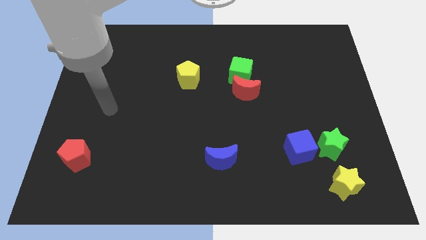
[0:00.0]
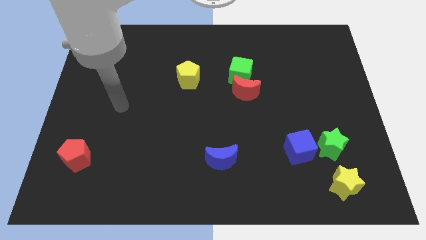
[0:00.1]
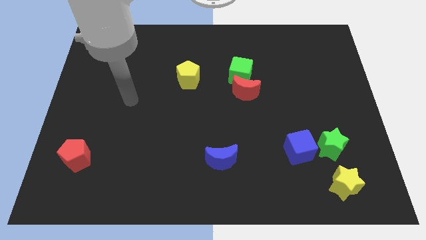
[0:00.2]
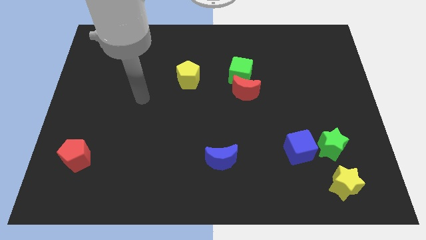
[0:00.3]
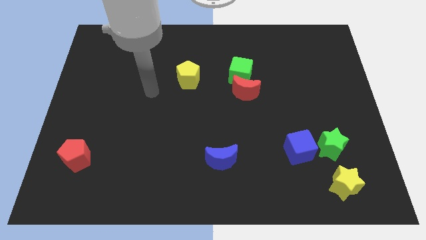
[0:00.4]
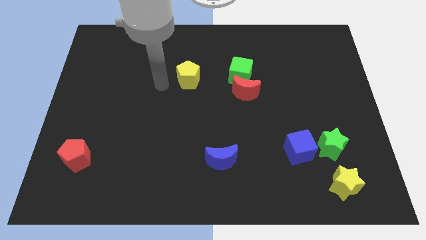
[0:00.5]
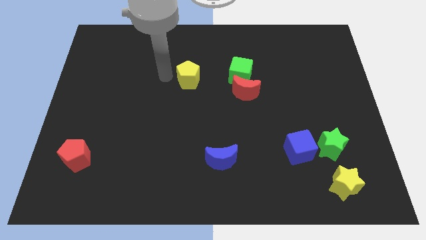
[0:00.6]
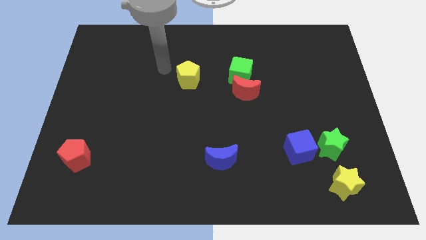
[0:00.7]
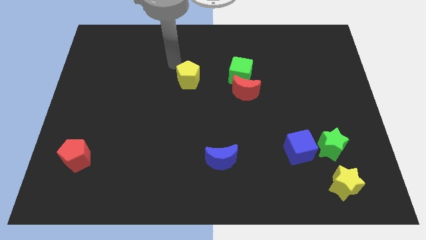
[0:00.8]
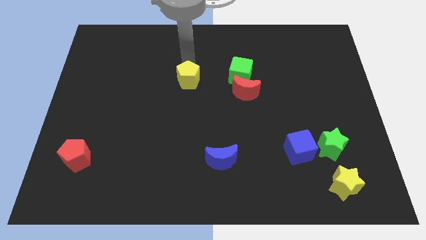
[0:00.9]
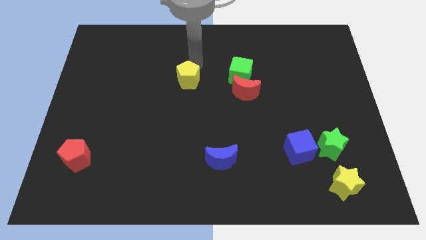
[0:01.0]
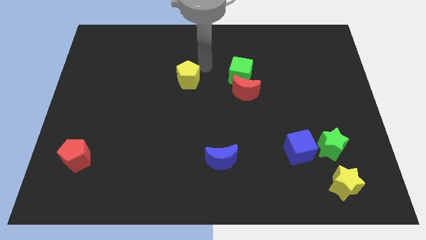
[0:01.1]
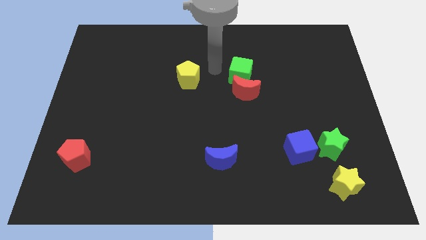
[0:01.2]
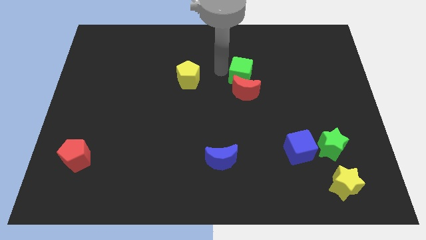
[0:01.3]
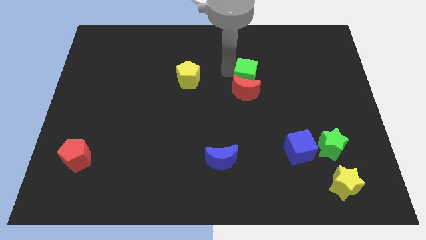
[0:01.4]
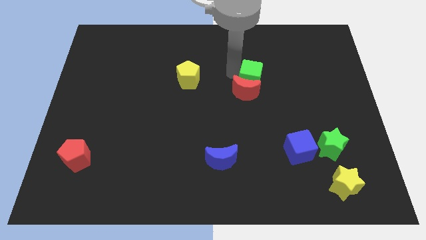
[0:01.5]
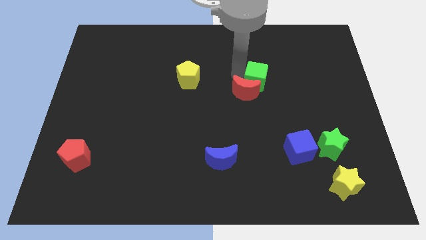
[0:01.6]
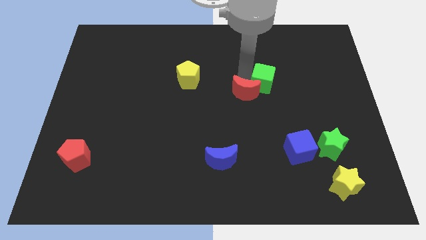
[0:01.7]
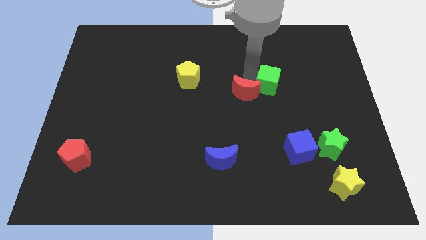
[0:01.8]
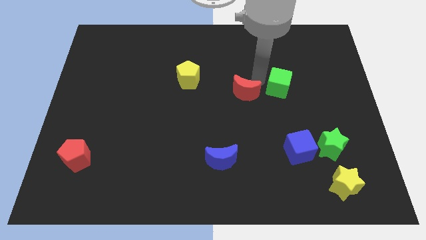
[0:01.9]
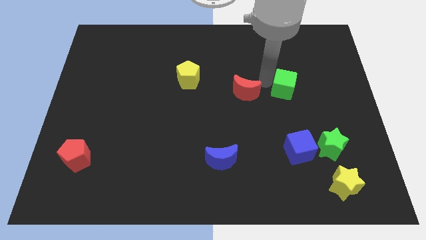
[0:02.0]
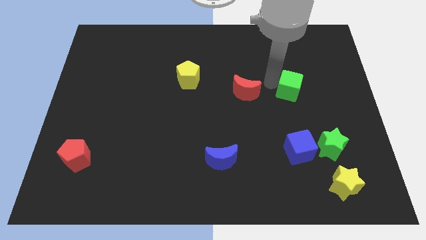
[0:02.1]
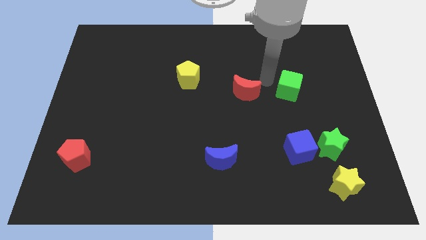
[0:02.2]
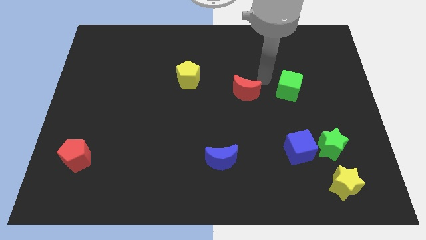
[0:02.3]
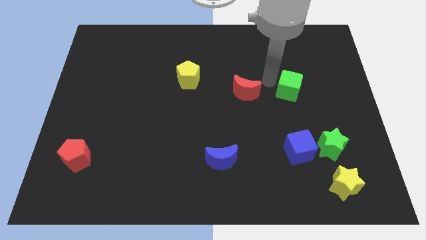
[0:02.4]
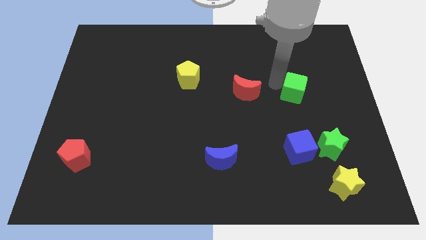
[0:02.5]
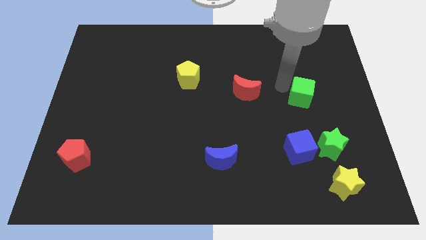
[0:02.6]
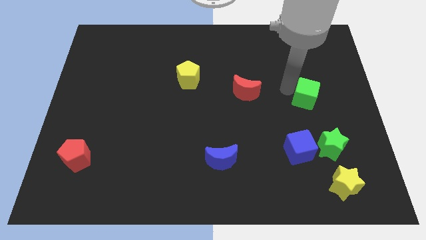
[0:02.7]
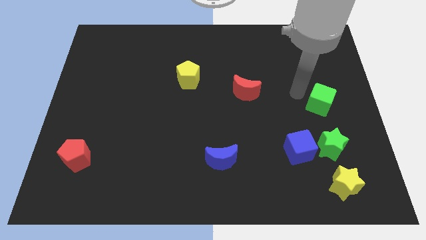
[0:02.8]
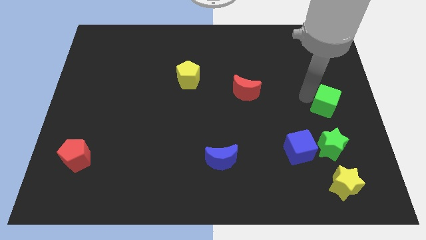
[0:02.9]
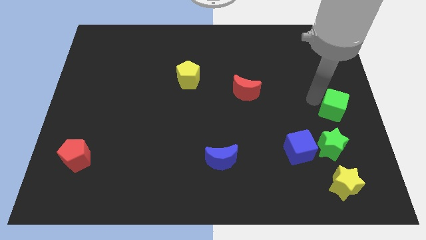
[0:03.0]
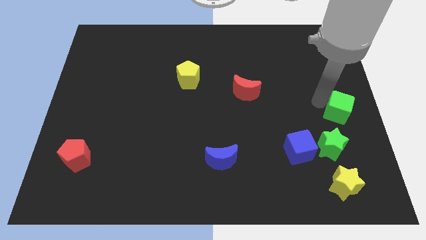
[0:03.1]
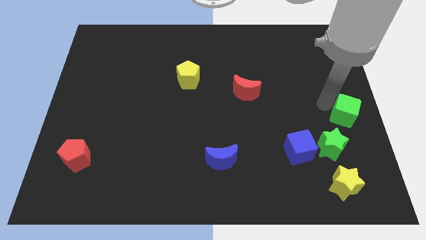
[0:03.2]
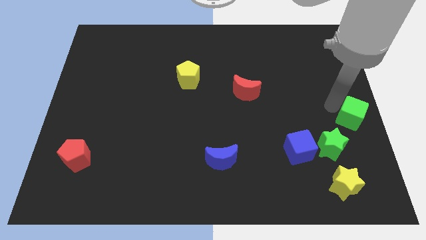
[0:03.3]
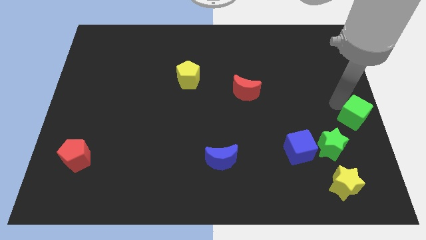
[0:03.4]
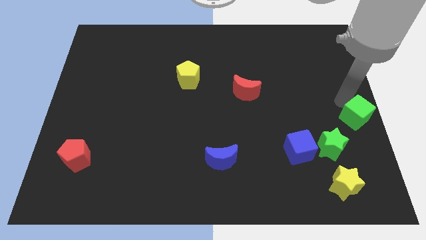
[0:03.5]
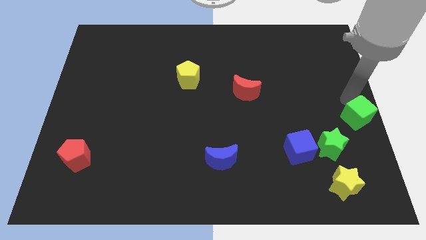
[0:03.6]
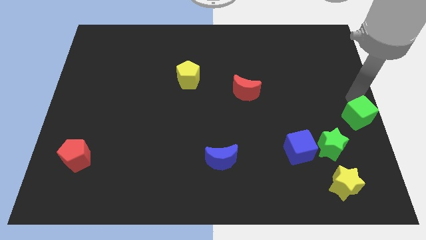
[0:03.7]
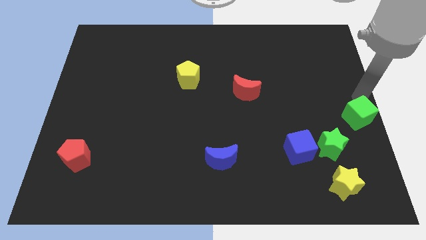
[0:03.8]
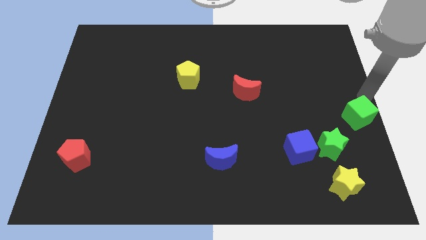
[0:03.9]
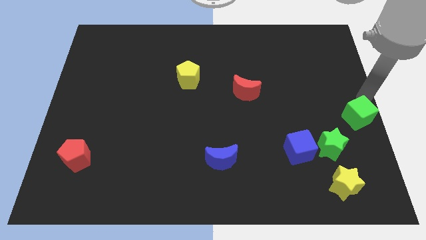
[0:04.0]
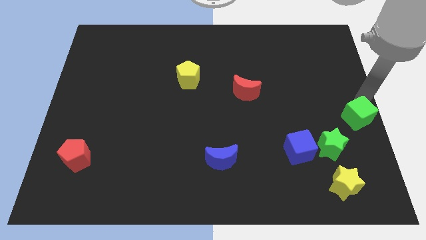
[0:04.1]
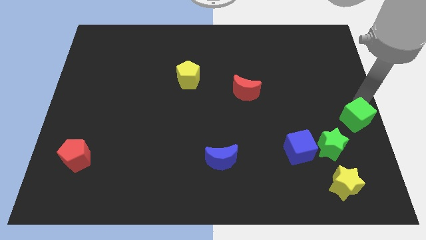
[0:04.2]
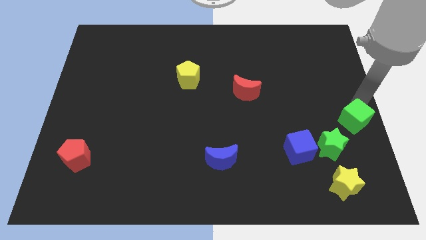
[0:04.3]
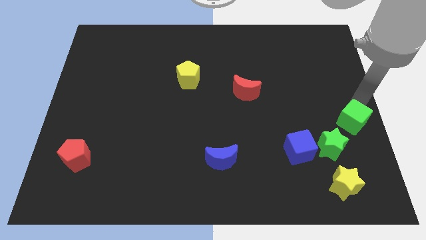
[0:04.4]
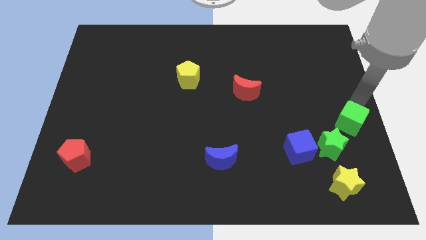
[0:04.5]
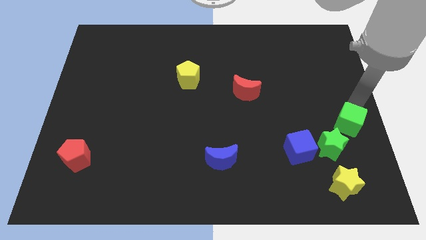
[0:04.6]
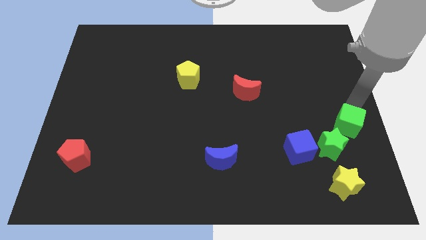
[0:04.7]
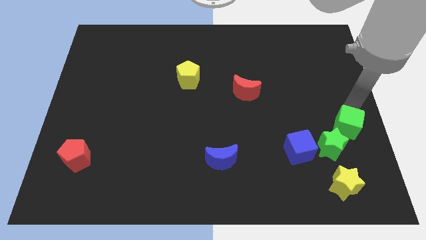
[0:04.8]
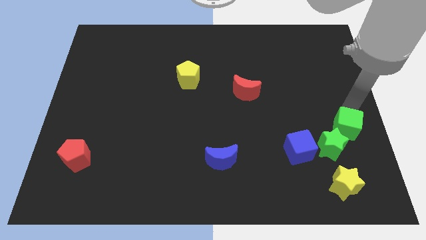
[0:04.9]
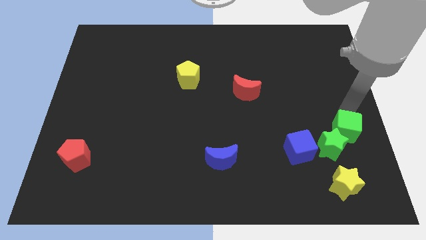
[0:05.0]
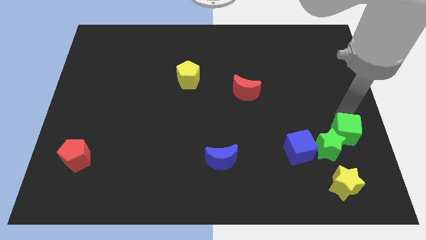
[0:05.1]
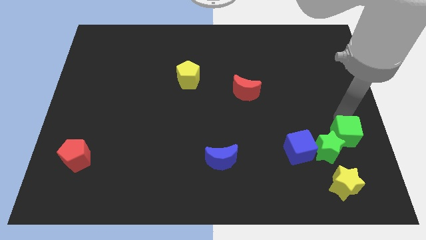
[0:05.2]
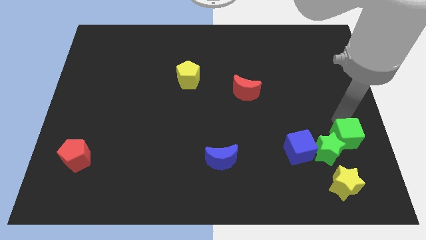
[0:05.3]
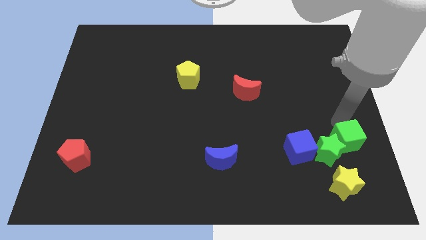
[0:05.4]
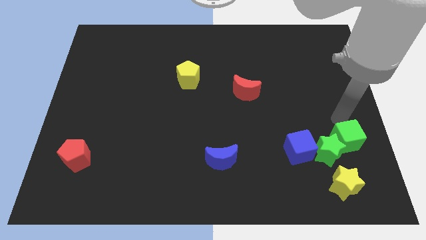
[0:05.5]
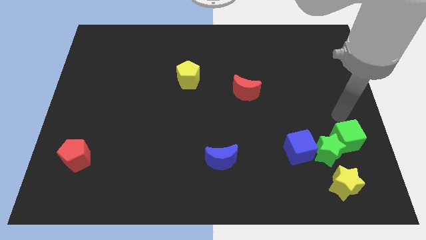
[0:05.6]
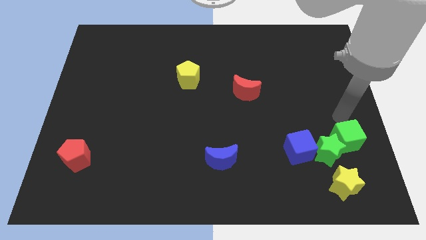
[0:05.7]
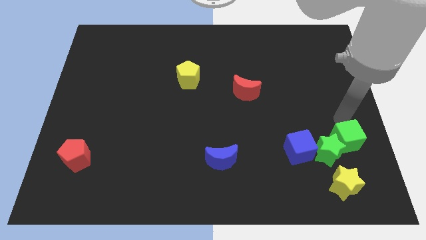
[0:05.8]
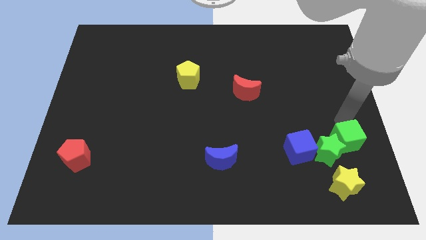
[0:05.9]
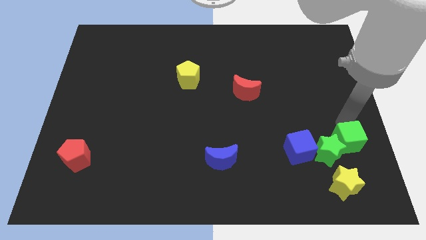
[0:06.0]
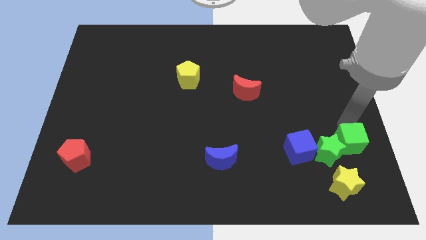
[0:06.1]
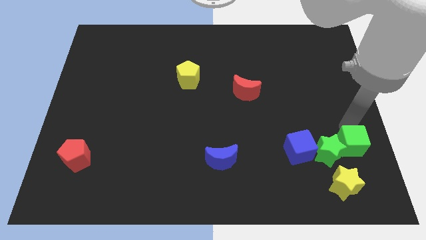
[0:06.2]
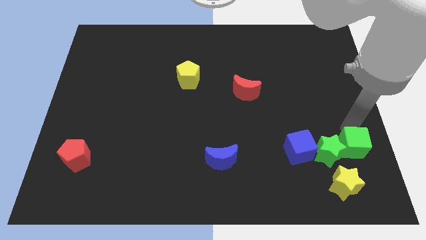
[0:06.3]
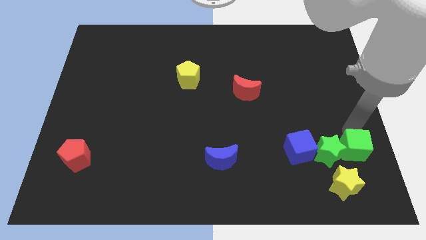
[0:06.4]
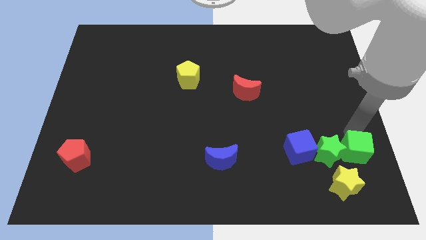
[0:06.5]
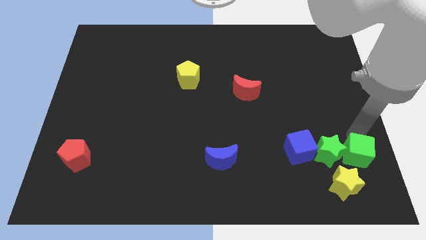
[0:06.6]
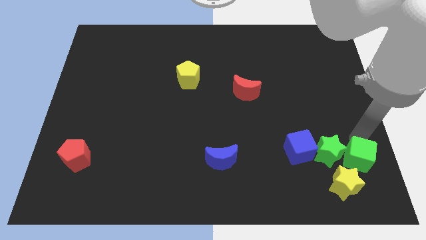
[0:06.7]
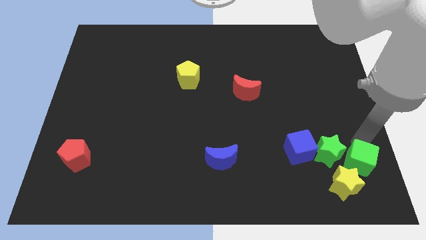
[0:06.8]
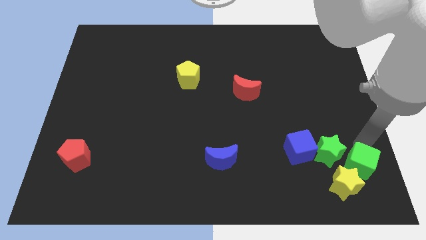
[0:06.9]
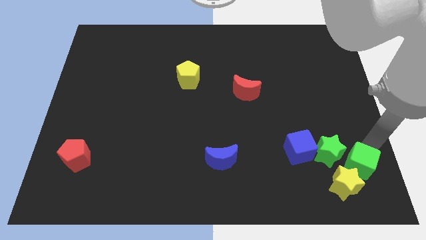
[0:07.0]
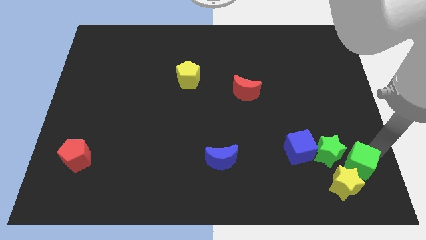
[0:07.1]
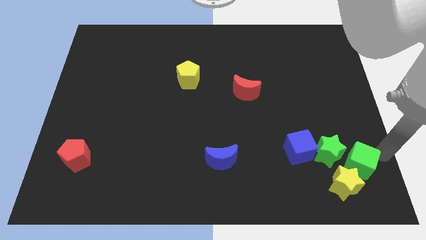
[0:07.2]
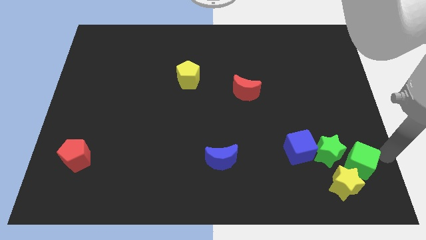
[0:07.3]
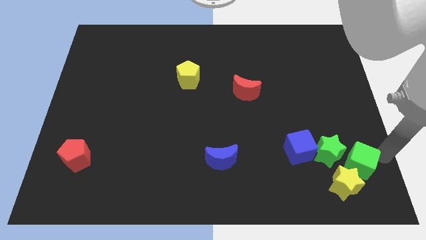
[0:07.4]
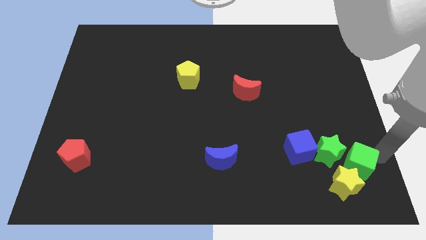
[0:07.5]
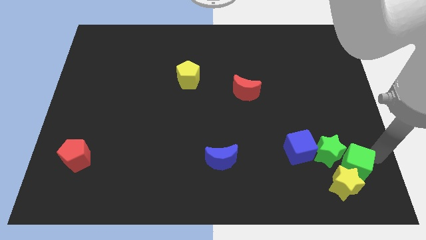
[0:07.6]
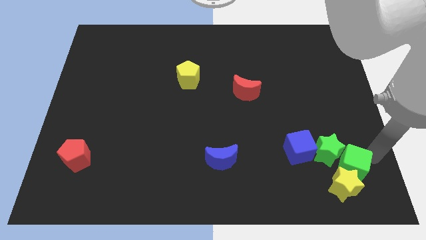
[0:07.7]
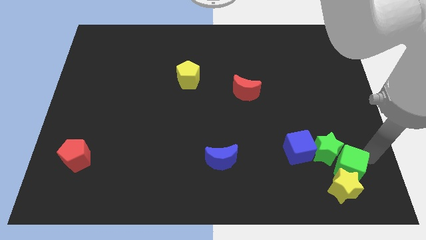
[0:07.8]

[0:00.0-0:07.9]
slide the green cube diagonally down and to the right of the blue cube

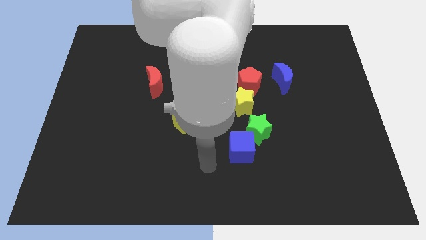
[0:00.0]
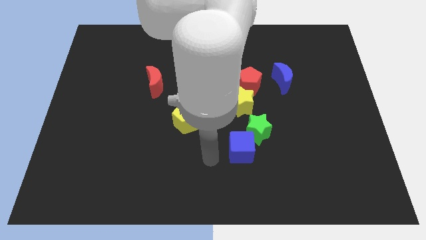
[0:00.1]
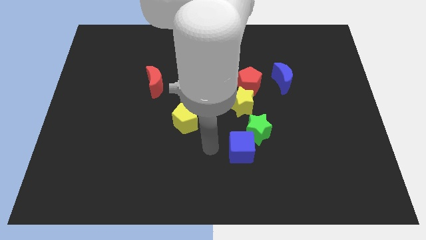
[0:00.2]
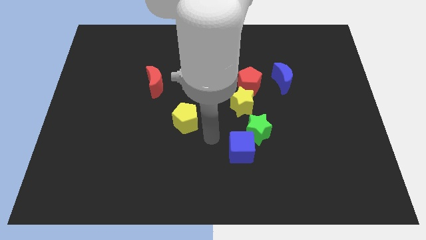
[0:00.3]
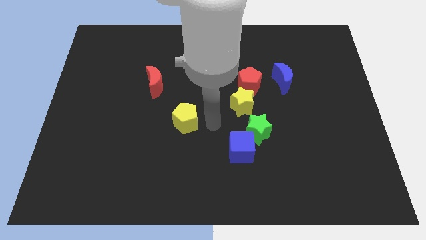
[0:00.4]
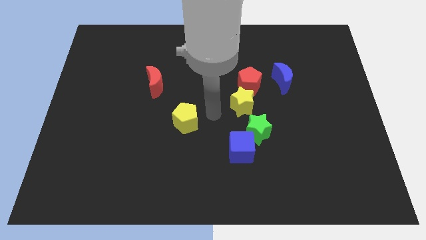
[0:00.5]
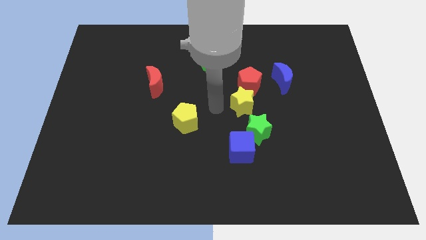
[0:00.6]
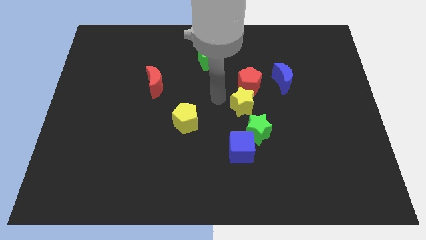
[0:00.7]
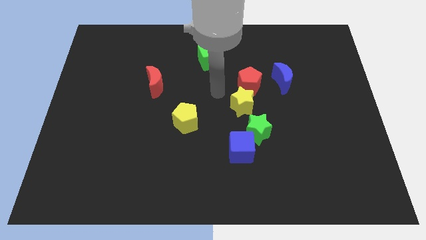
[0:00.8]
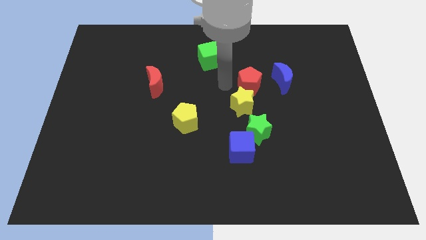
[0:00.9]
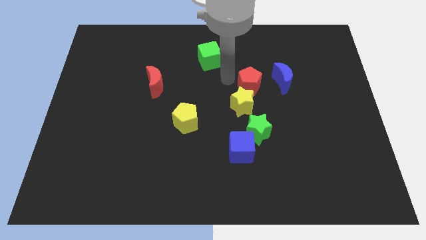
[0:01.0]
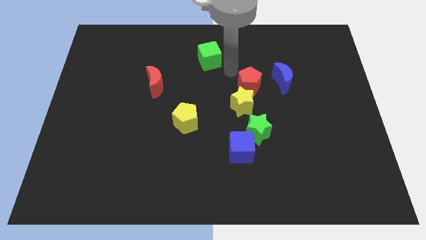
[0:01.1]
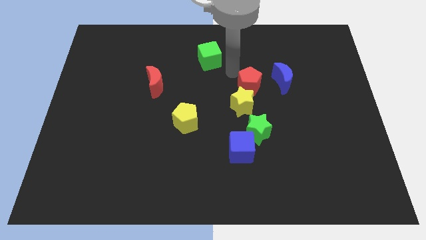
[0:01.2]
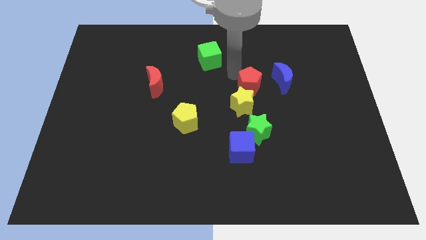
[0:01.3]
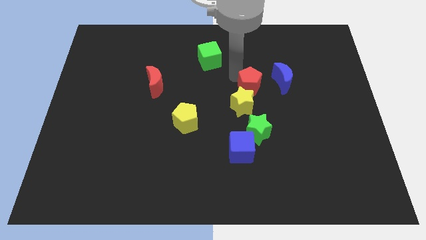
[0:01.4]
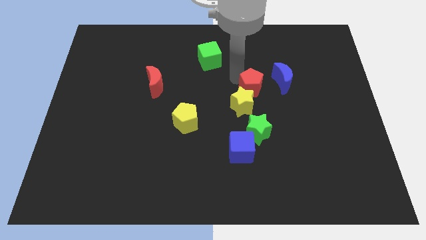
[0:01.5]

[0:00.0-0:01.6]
move the red pentagon to the bottom left of the blue moon
